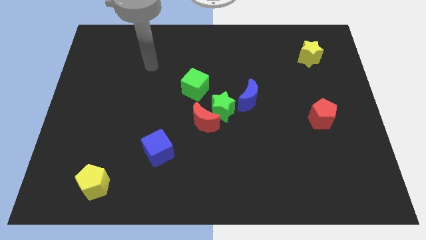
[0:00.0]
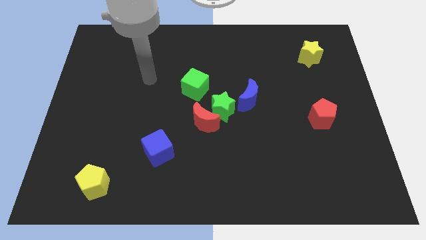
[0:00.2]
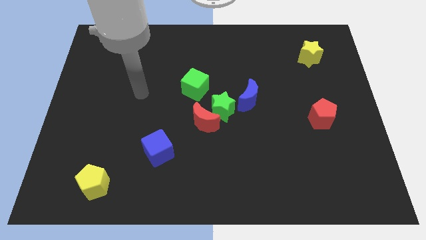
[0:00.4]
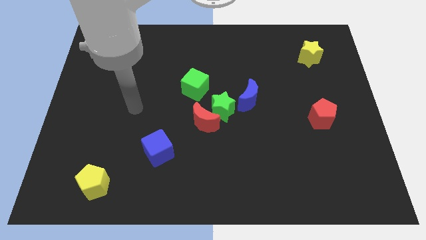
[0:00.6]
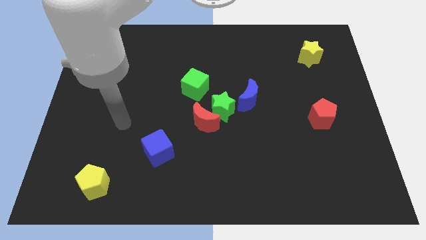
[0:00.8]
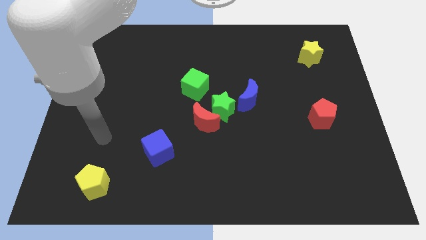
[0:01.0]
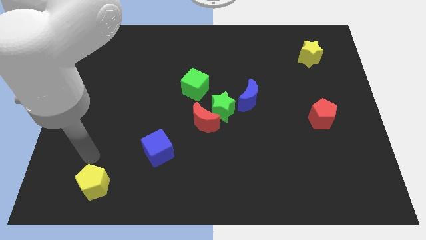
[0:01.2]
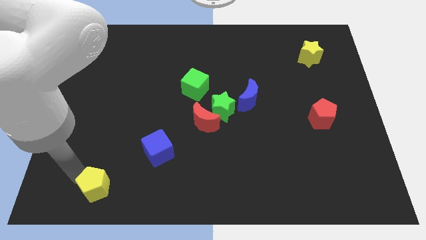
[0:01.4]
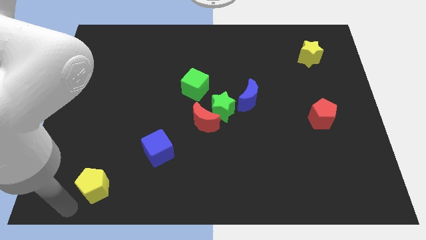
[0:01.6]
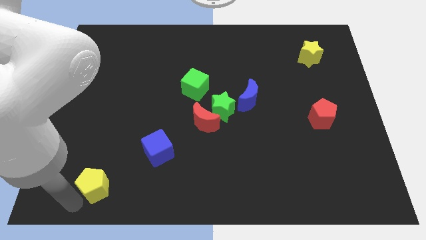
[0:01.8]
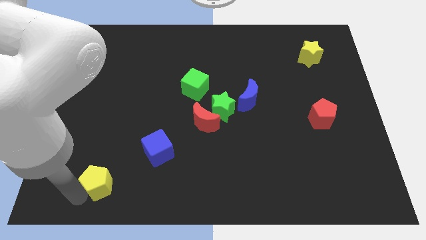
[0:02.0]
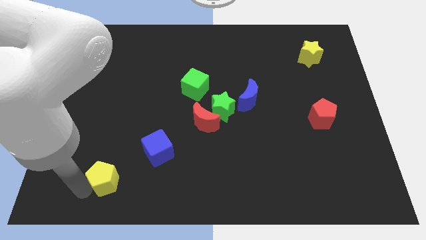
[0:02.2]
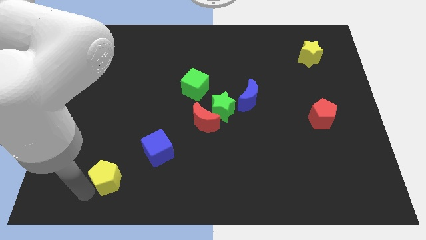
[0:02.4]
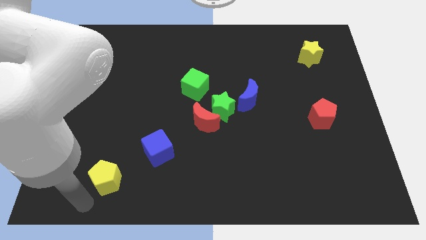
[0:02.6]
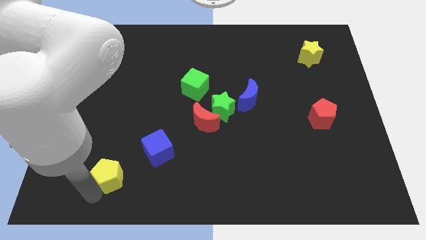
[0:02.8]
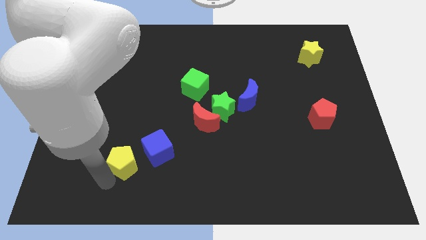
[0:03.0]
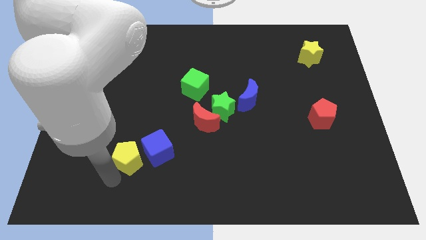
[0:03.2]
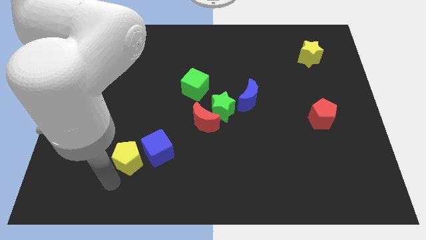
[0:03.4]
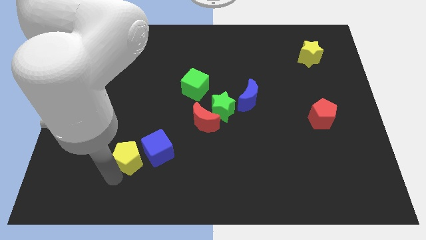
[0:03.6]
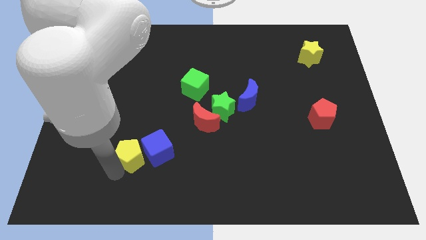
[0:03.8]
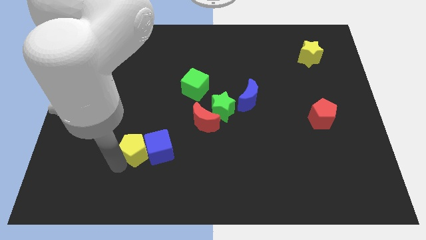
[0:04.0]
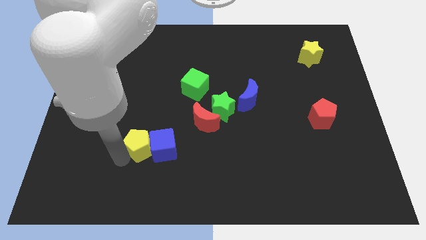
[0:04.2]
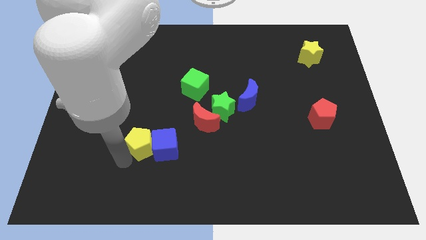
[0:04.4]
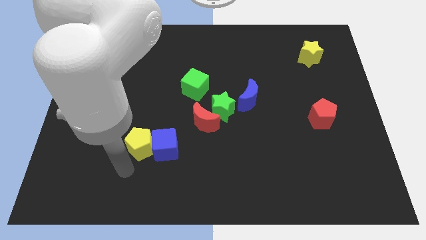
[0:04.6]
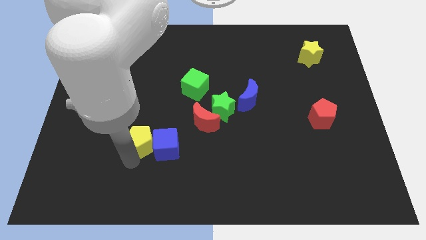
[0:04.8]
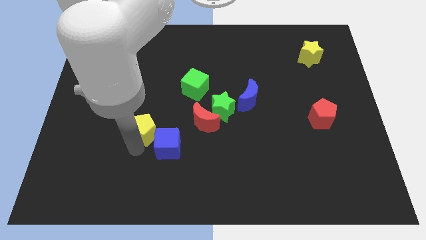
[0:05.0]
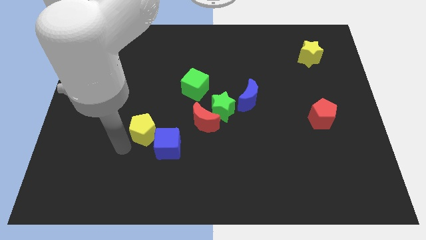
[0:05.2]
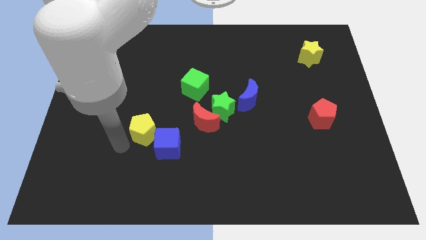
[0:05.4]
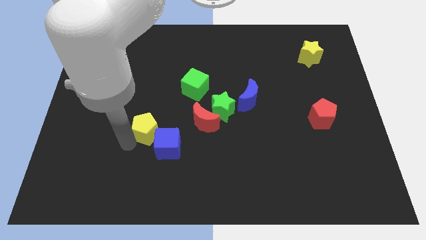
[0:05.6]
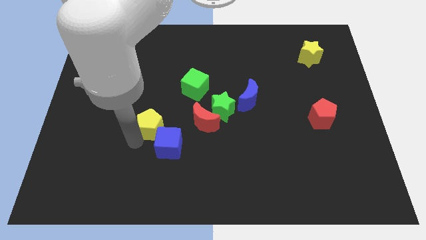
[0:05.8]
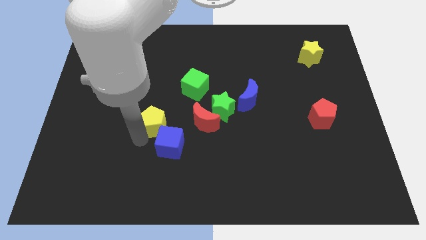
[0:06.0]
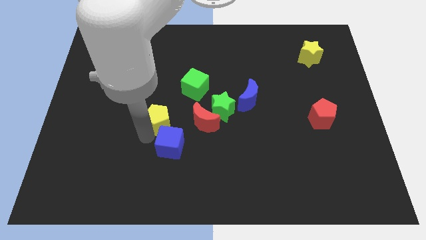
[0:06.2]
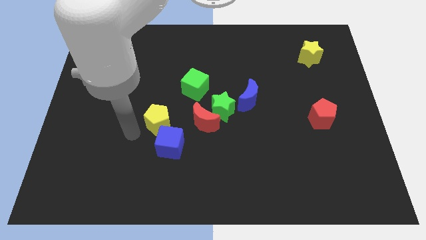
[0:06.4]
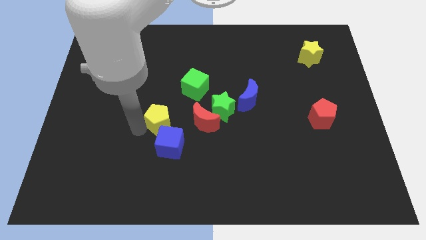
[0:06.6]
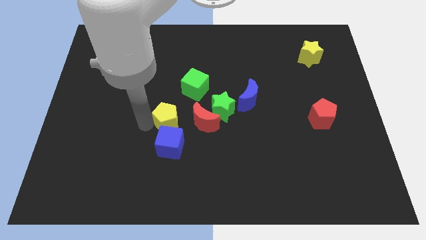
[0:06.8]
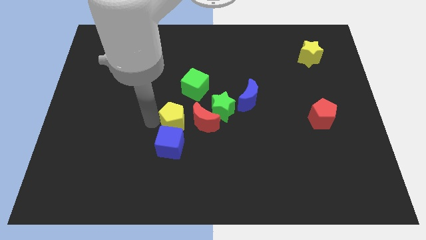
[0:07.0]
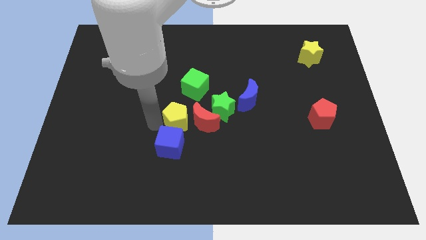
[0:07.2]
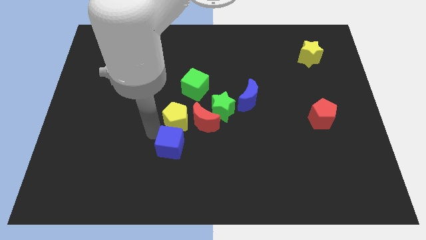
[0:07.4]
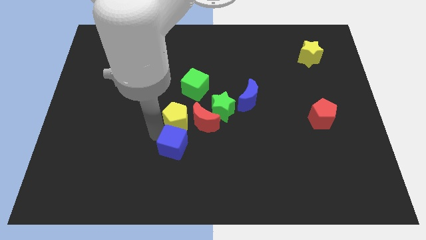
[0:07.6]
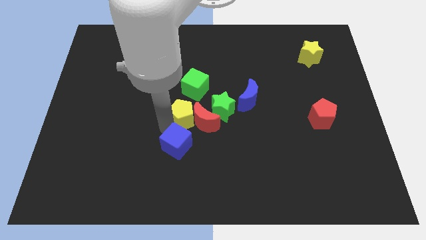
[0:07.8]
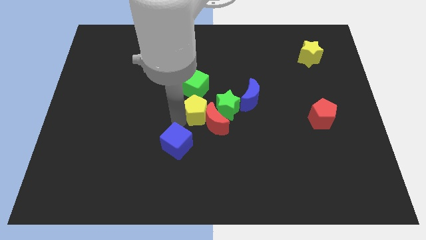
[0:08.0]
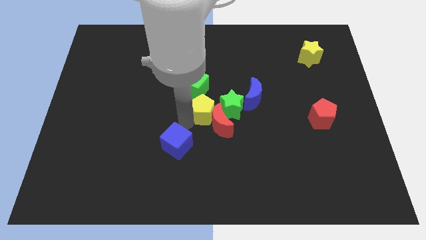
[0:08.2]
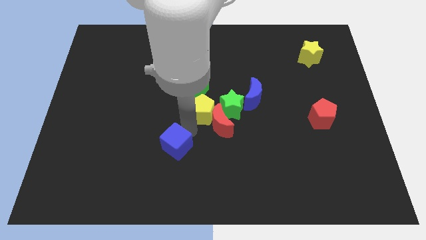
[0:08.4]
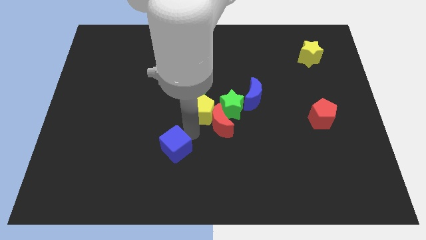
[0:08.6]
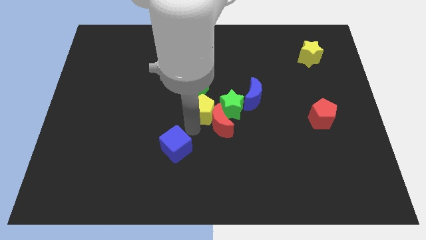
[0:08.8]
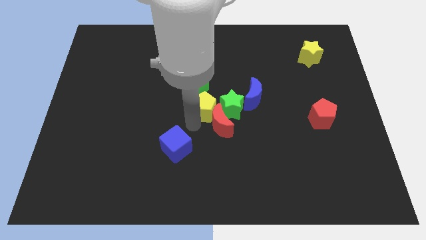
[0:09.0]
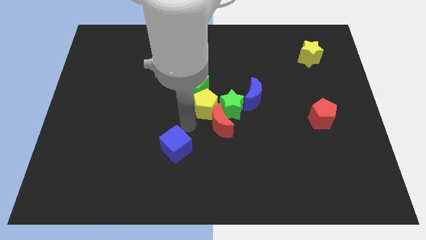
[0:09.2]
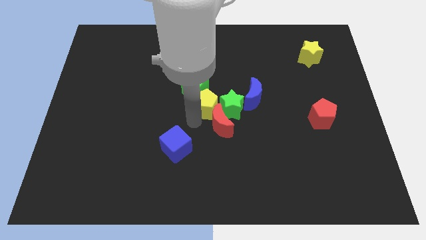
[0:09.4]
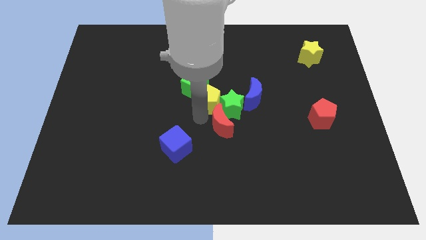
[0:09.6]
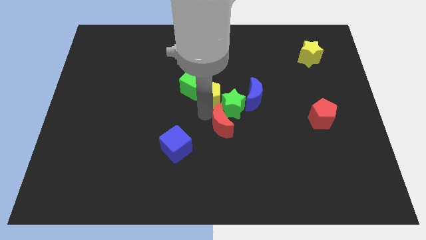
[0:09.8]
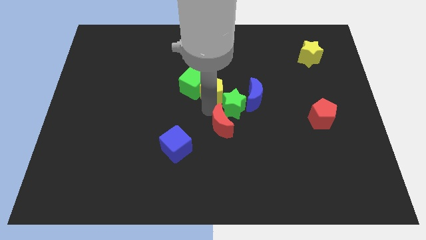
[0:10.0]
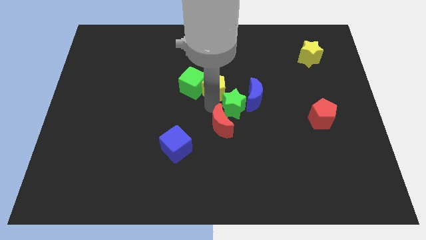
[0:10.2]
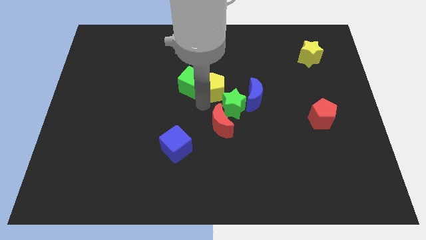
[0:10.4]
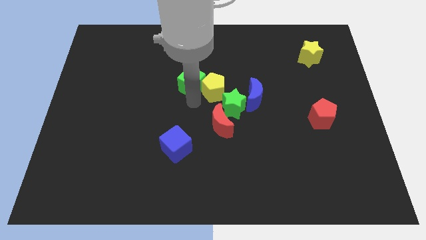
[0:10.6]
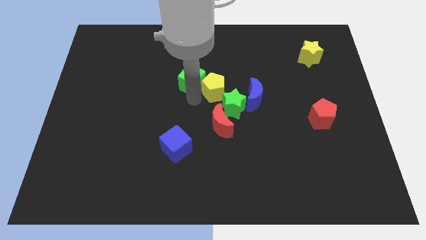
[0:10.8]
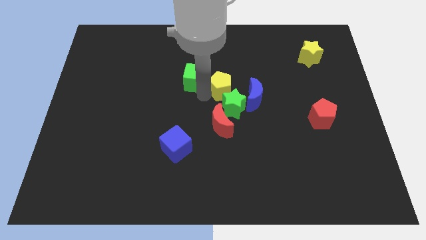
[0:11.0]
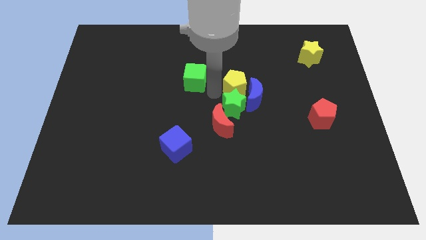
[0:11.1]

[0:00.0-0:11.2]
slide the yellow pentagon above the blue moon

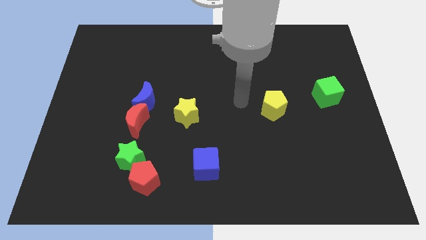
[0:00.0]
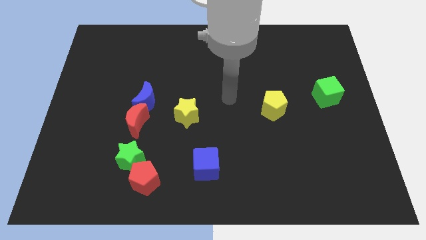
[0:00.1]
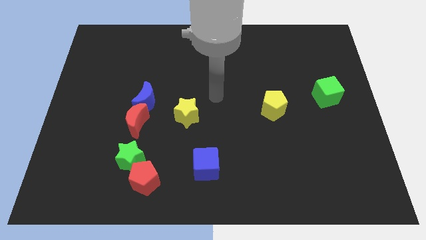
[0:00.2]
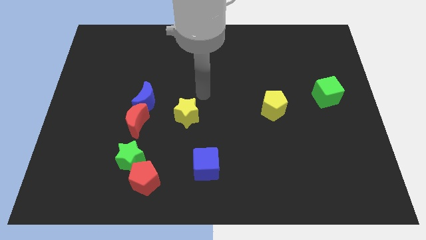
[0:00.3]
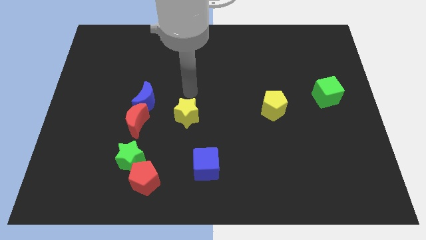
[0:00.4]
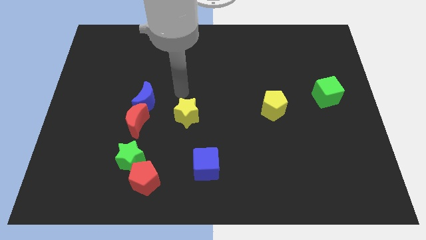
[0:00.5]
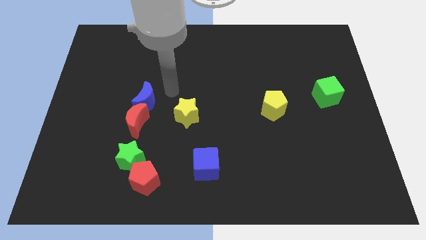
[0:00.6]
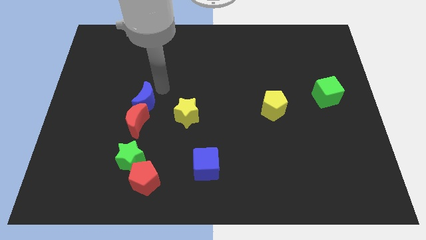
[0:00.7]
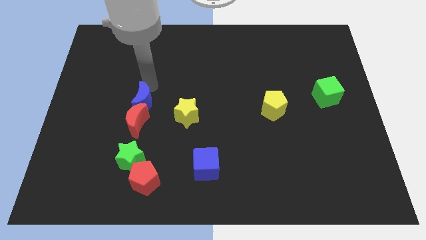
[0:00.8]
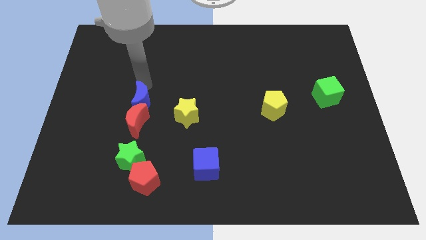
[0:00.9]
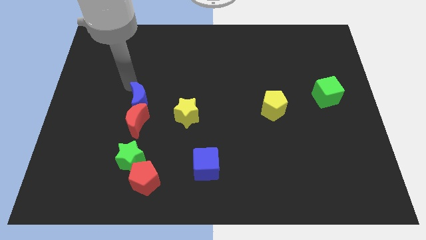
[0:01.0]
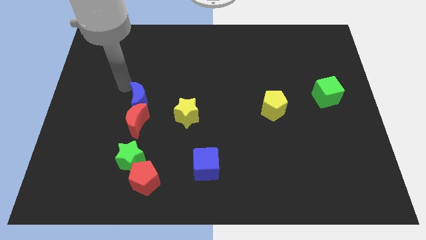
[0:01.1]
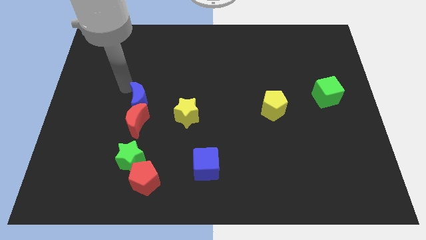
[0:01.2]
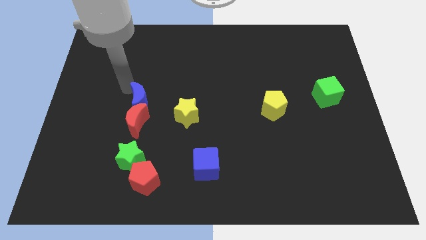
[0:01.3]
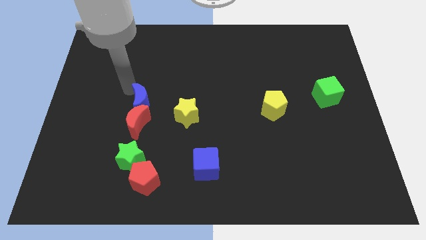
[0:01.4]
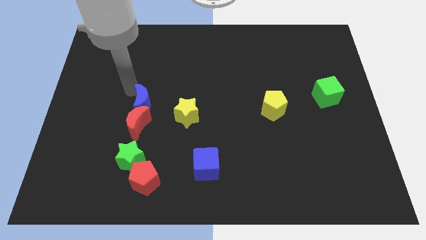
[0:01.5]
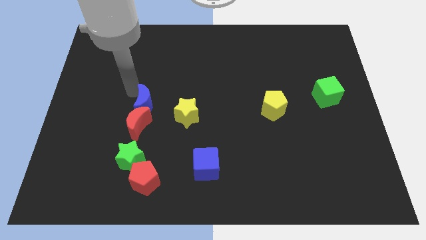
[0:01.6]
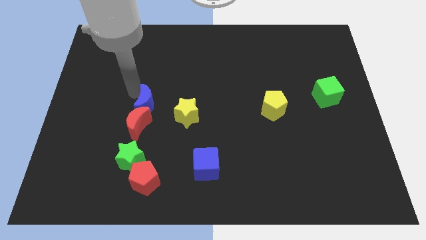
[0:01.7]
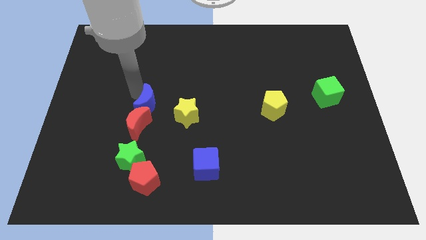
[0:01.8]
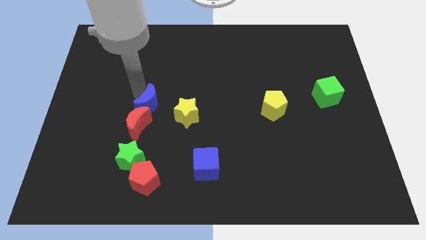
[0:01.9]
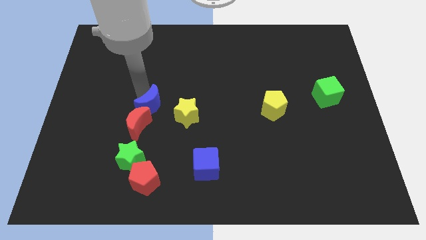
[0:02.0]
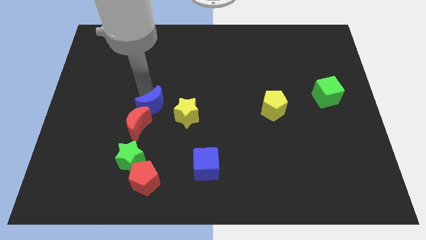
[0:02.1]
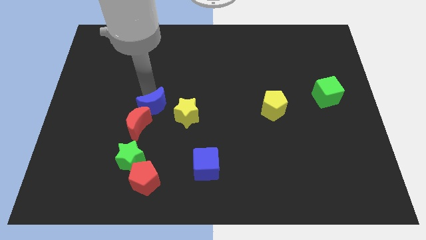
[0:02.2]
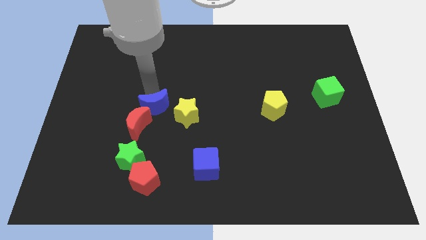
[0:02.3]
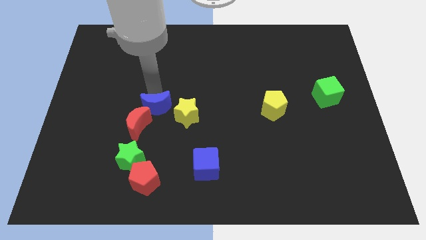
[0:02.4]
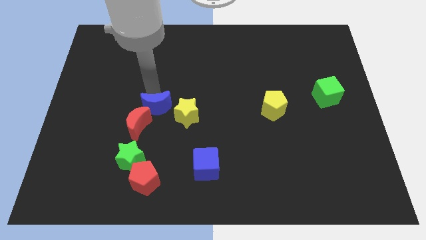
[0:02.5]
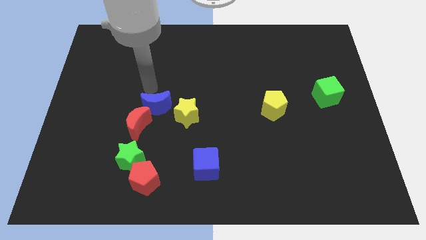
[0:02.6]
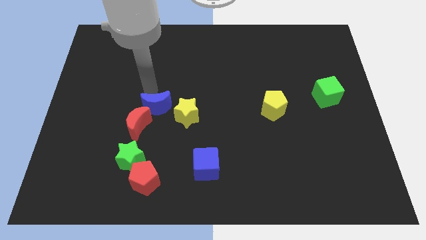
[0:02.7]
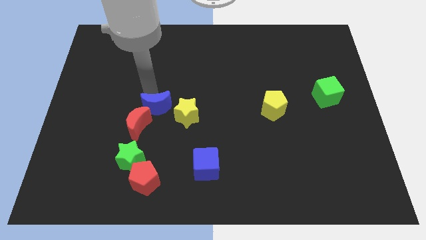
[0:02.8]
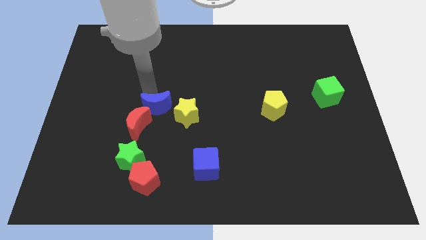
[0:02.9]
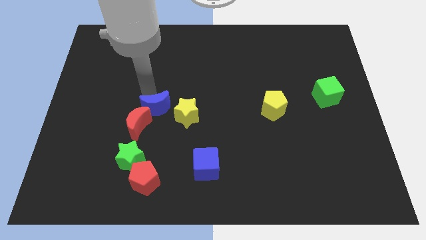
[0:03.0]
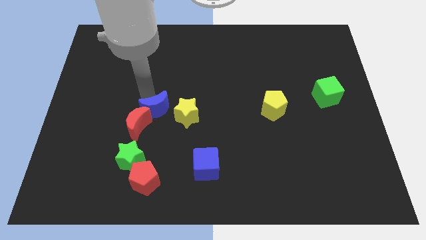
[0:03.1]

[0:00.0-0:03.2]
move the blue moon just right of the red moon
